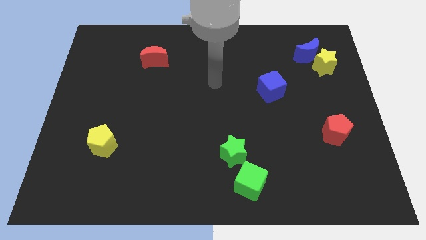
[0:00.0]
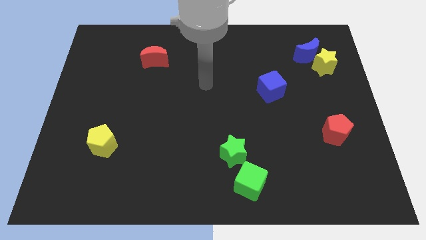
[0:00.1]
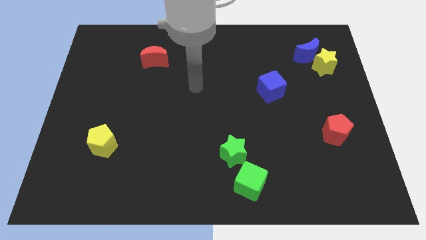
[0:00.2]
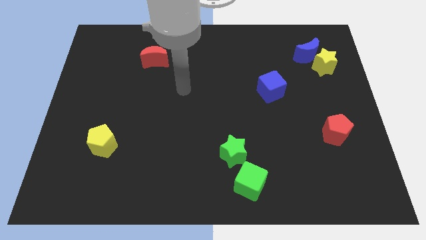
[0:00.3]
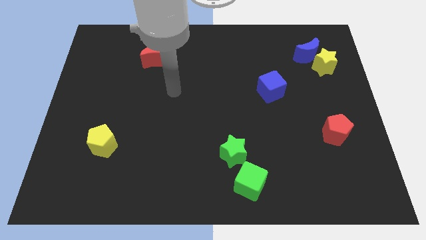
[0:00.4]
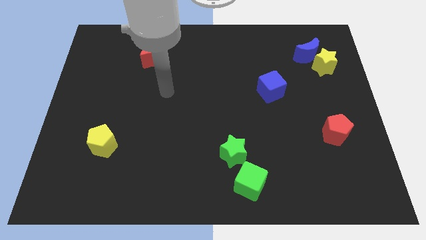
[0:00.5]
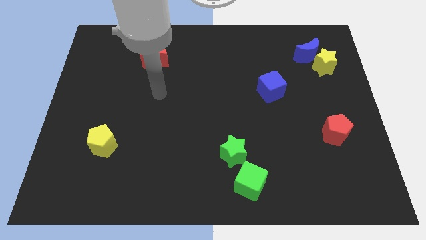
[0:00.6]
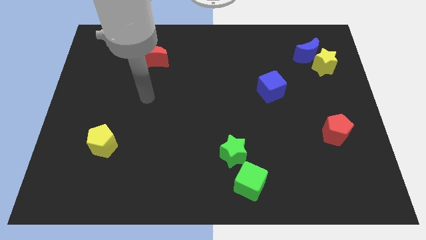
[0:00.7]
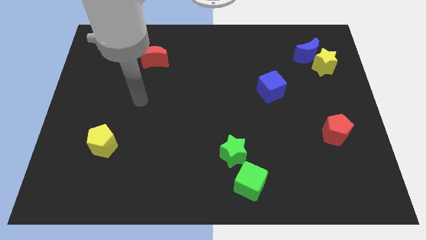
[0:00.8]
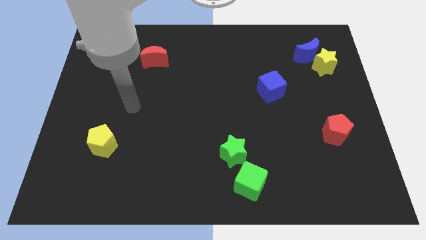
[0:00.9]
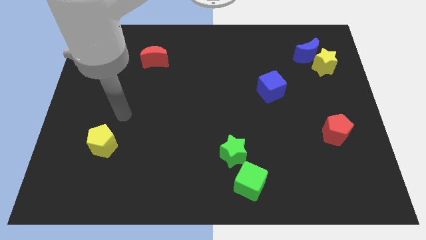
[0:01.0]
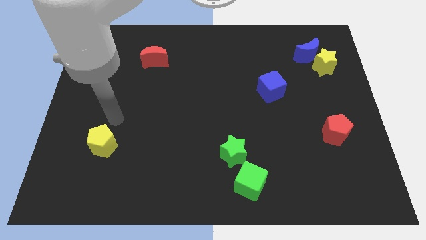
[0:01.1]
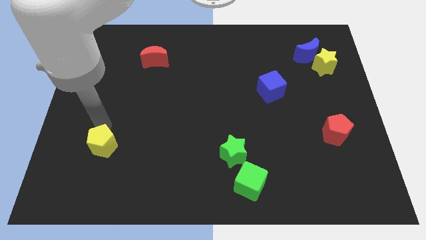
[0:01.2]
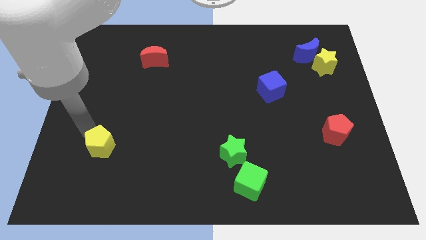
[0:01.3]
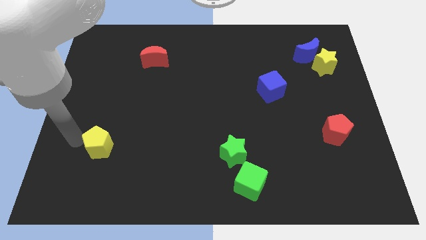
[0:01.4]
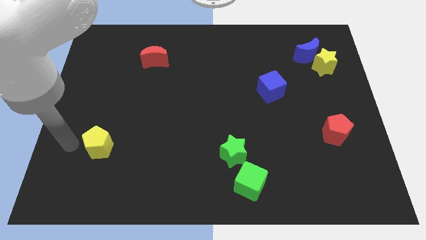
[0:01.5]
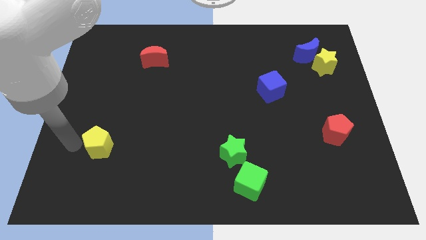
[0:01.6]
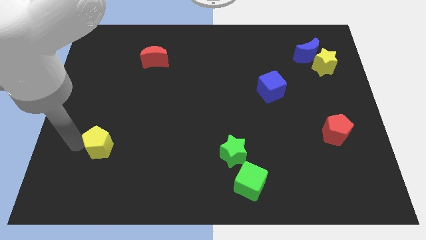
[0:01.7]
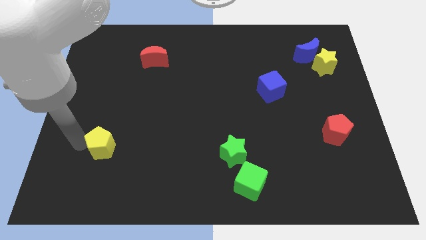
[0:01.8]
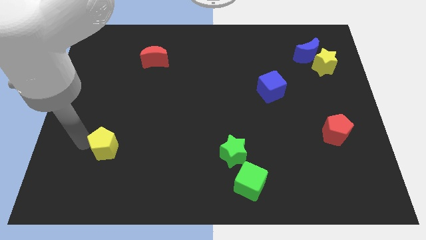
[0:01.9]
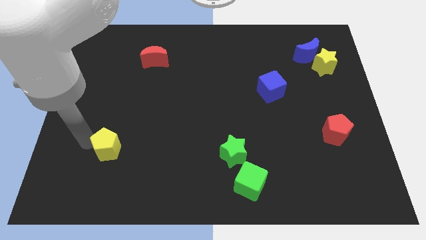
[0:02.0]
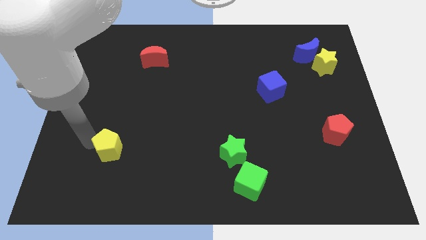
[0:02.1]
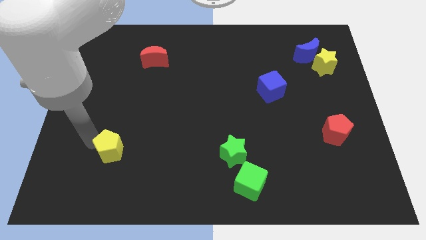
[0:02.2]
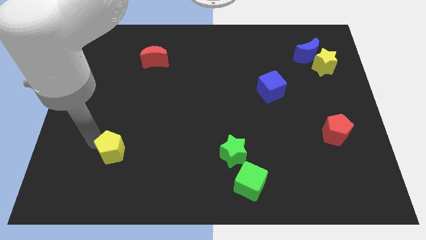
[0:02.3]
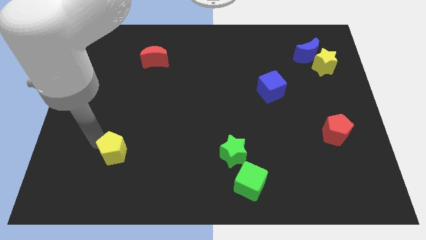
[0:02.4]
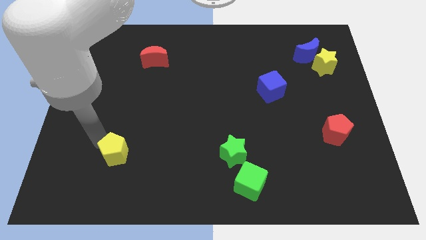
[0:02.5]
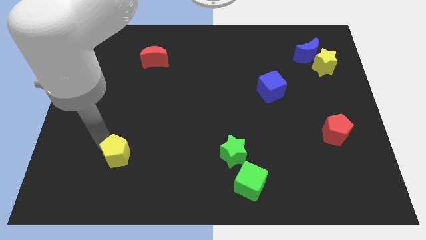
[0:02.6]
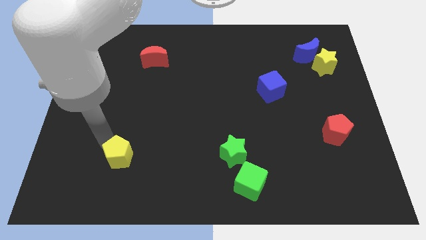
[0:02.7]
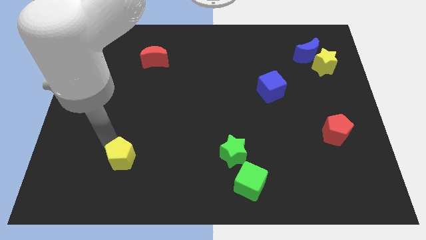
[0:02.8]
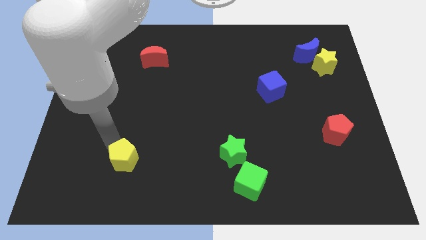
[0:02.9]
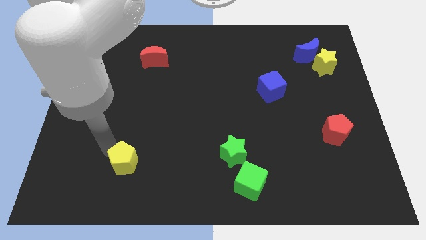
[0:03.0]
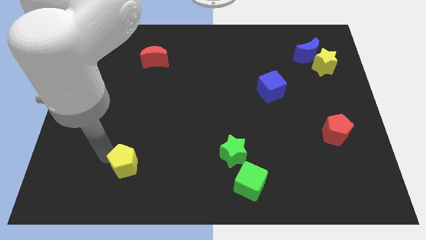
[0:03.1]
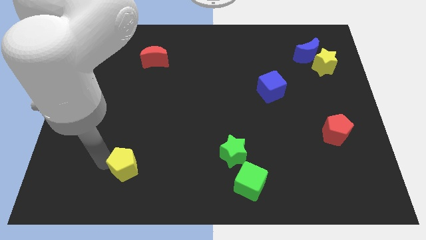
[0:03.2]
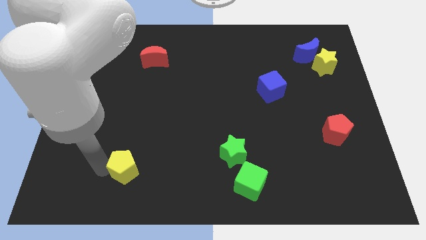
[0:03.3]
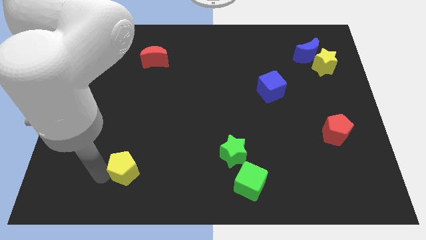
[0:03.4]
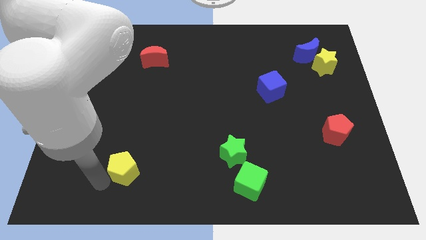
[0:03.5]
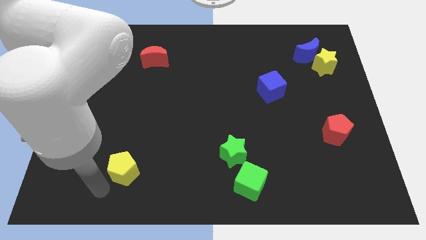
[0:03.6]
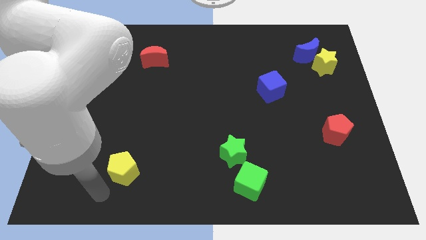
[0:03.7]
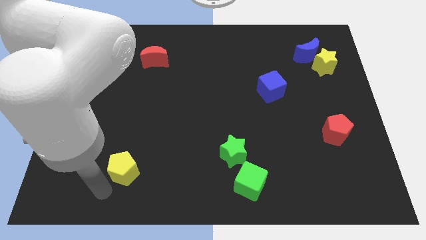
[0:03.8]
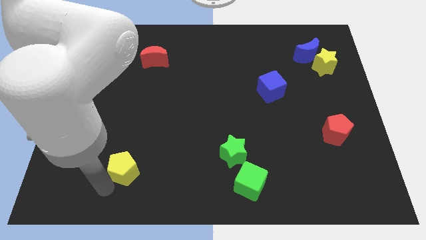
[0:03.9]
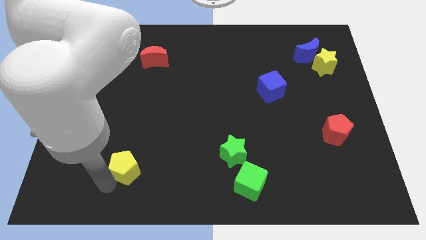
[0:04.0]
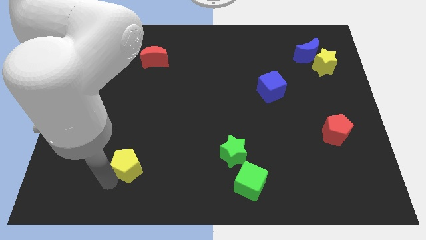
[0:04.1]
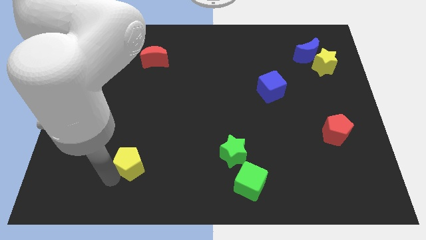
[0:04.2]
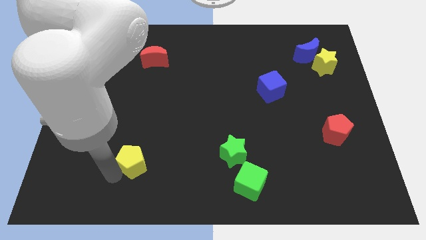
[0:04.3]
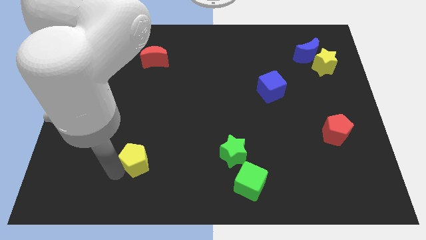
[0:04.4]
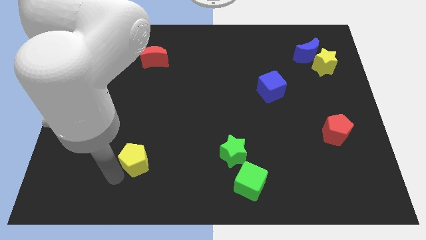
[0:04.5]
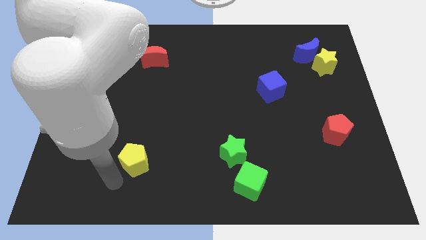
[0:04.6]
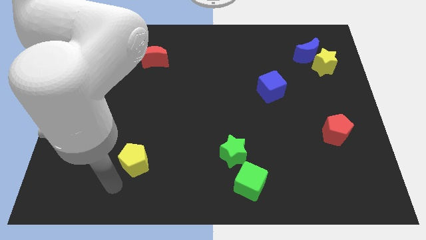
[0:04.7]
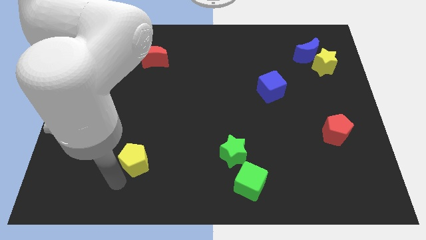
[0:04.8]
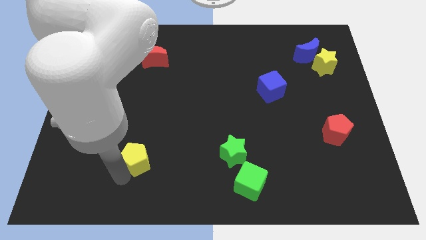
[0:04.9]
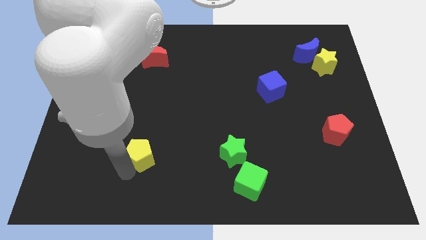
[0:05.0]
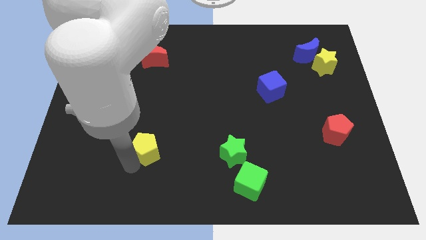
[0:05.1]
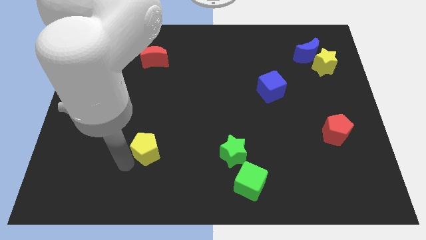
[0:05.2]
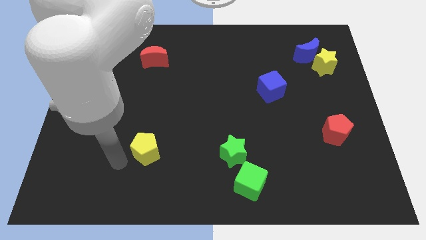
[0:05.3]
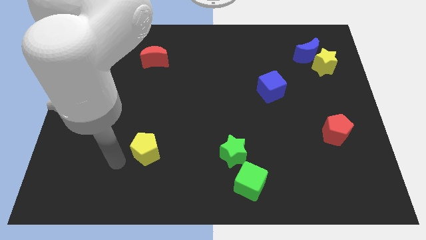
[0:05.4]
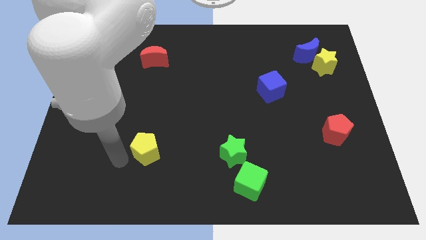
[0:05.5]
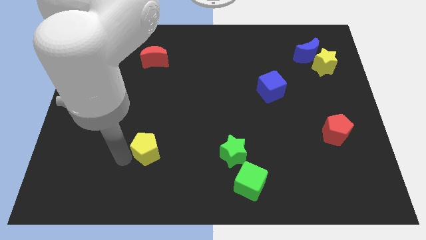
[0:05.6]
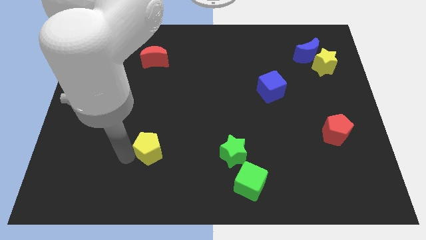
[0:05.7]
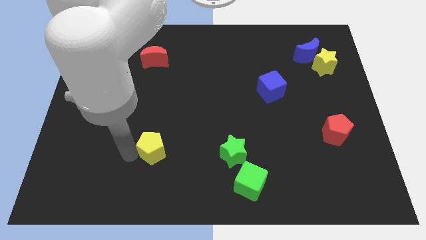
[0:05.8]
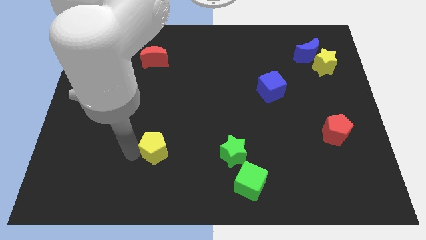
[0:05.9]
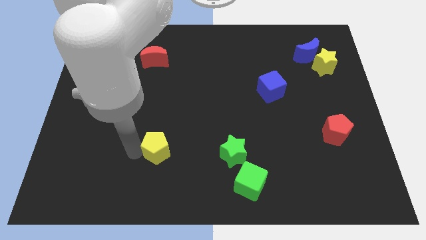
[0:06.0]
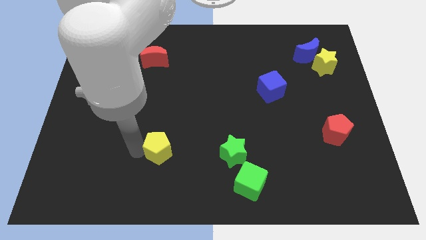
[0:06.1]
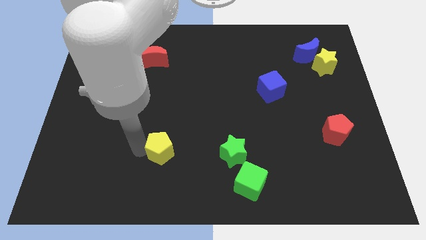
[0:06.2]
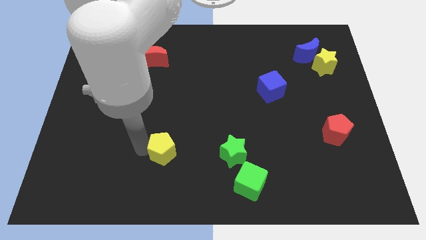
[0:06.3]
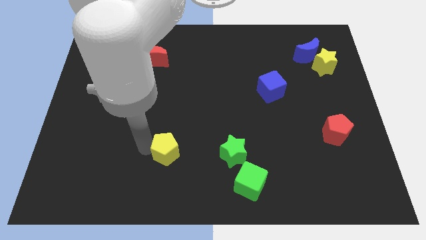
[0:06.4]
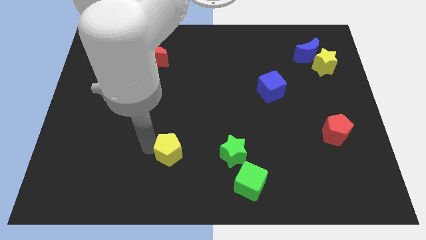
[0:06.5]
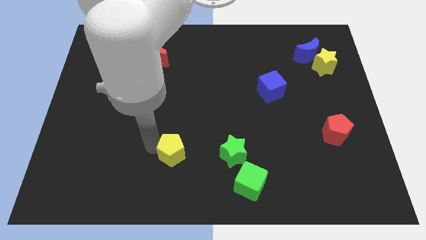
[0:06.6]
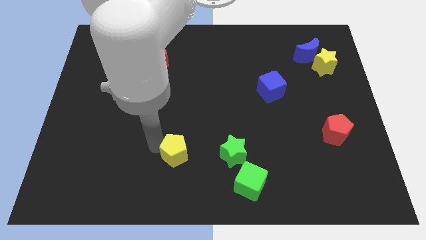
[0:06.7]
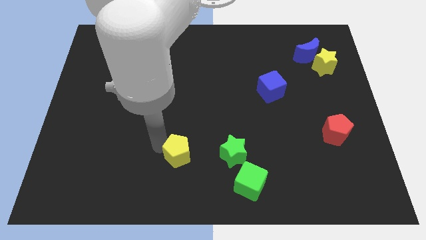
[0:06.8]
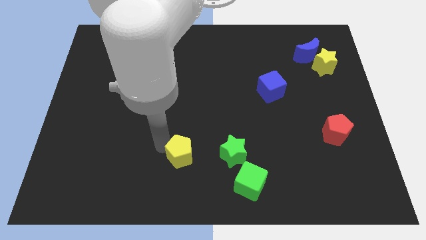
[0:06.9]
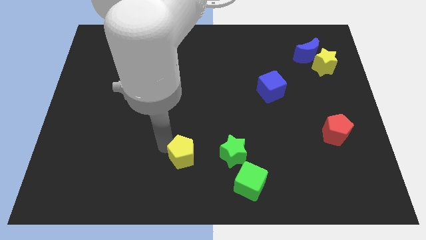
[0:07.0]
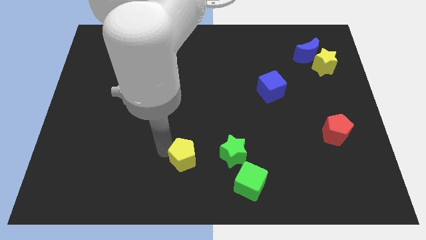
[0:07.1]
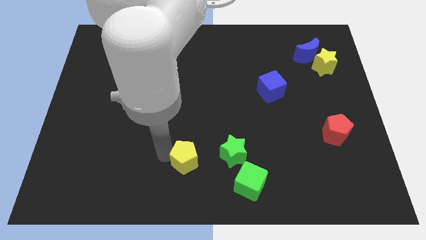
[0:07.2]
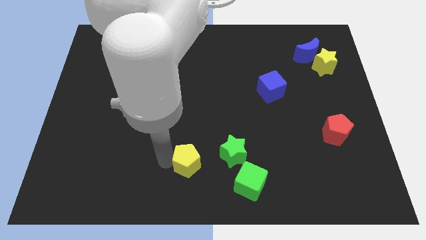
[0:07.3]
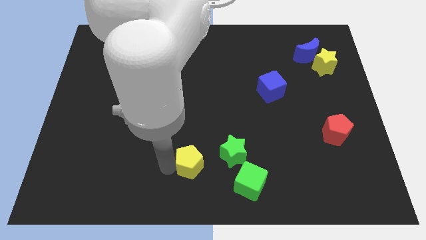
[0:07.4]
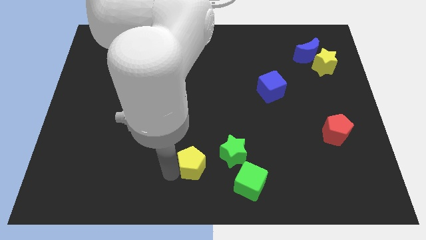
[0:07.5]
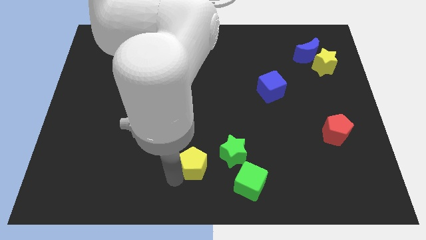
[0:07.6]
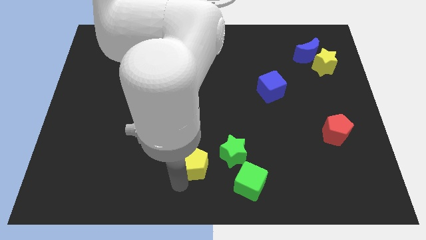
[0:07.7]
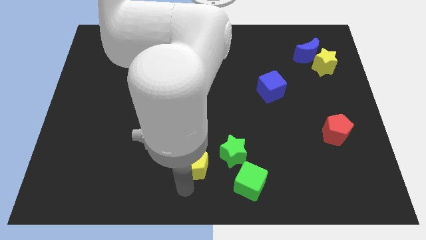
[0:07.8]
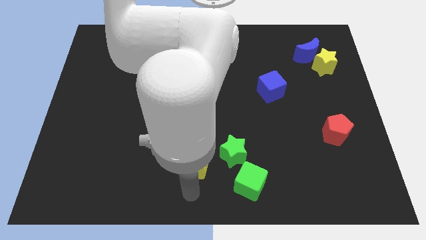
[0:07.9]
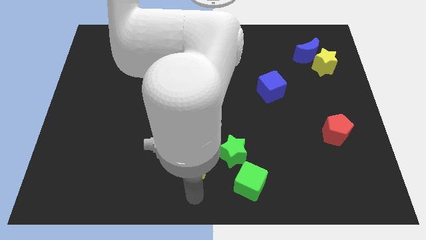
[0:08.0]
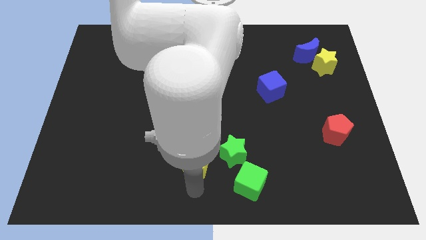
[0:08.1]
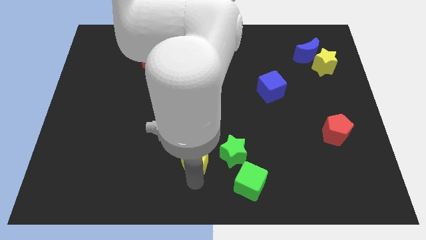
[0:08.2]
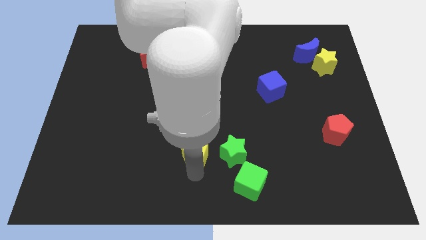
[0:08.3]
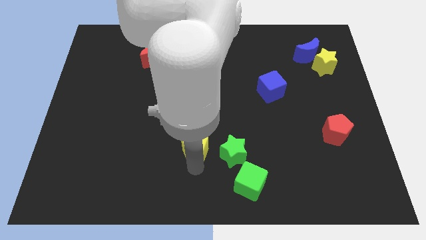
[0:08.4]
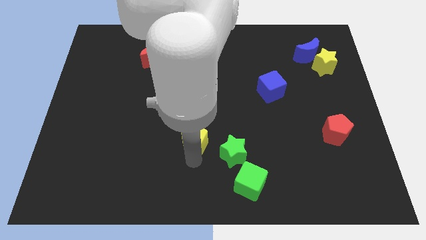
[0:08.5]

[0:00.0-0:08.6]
slide the yellow pentagon to the top left side of the green star
